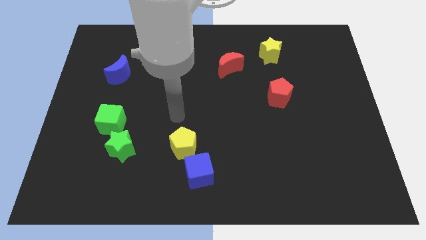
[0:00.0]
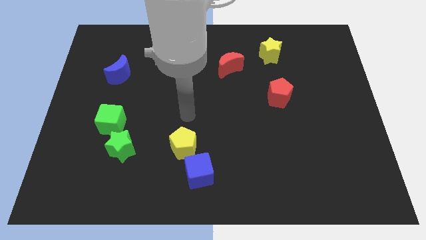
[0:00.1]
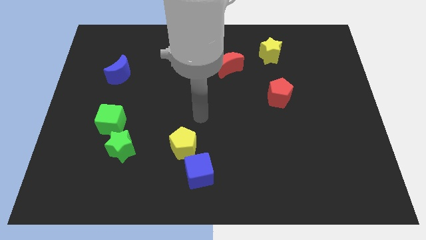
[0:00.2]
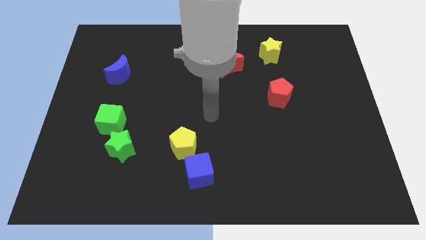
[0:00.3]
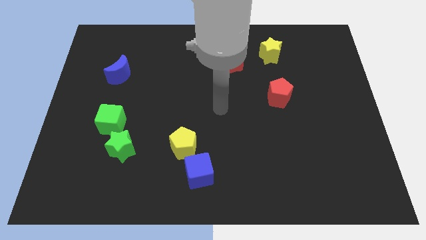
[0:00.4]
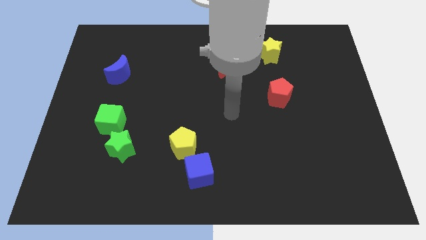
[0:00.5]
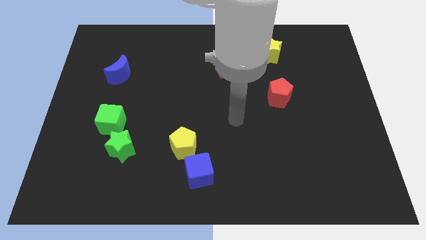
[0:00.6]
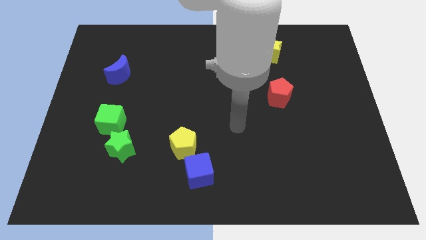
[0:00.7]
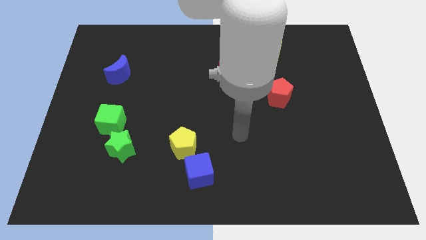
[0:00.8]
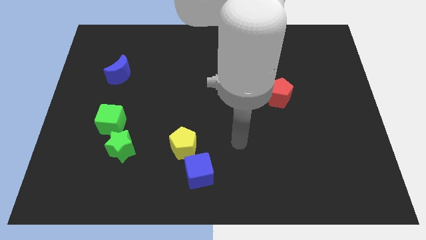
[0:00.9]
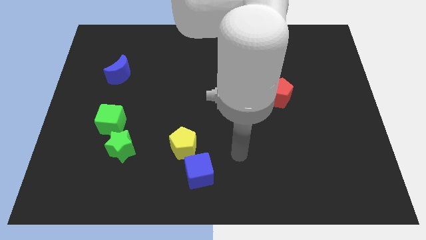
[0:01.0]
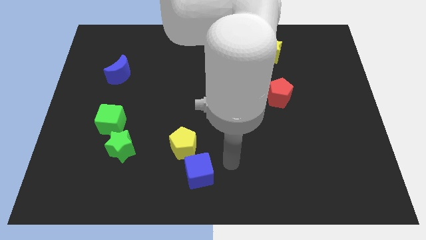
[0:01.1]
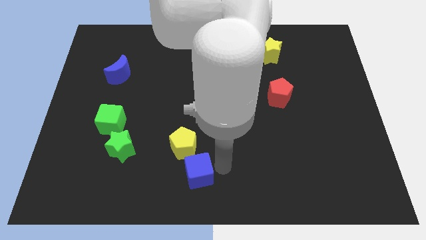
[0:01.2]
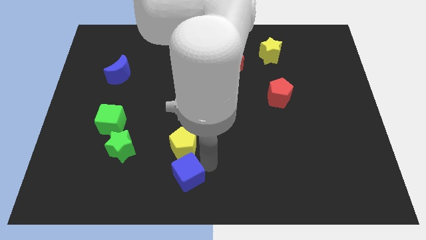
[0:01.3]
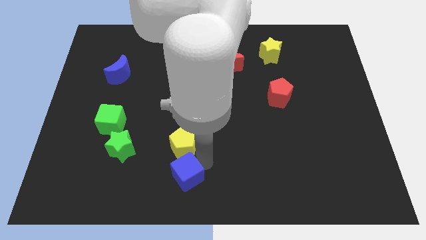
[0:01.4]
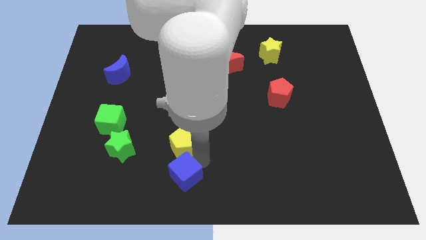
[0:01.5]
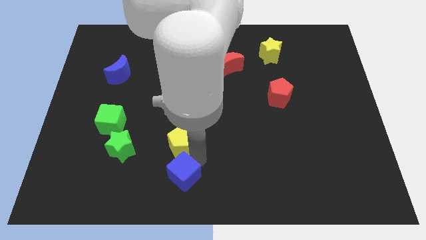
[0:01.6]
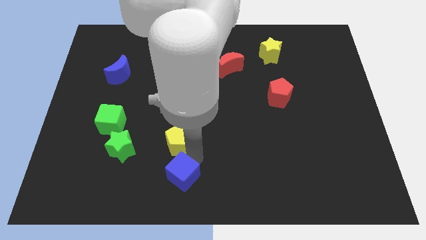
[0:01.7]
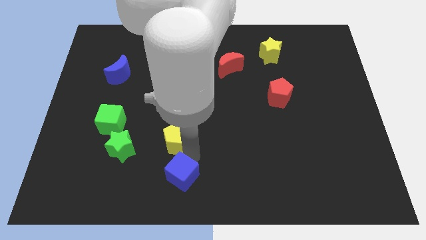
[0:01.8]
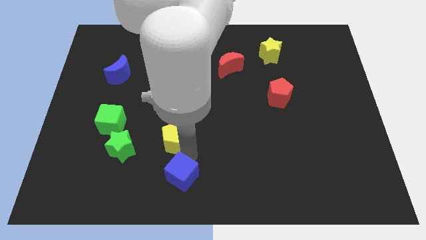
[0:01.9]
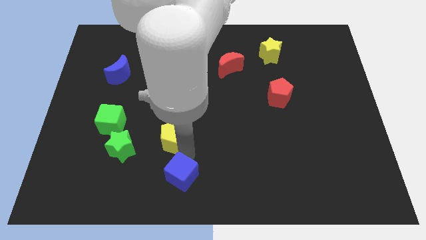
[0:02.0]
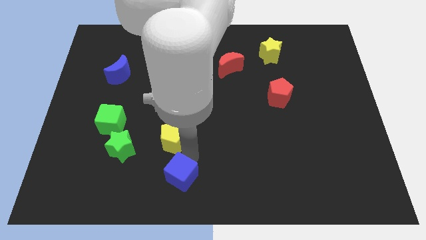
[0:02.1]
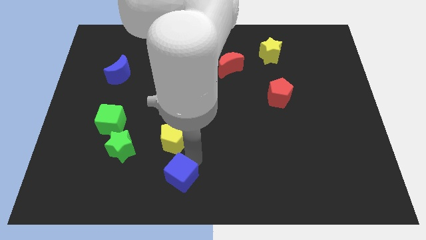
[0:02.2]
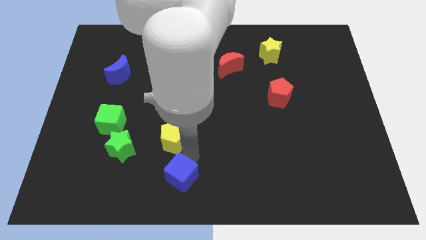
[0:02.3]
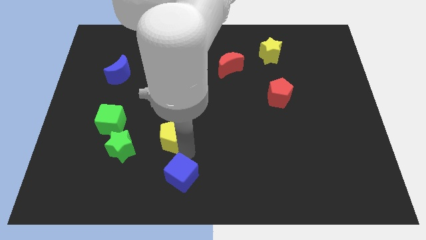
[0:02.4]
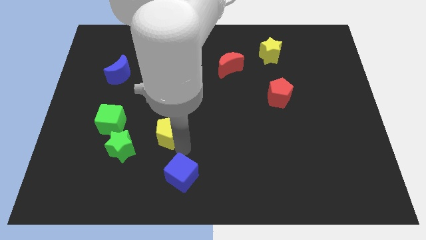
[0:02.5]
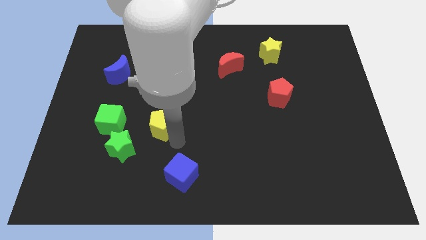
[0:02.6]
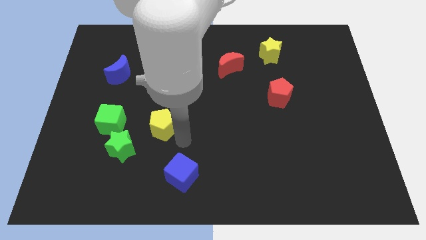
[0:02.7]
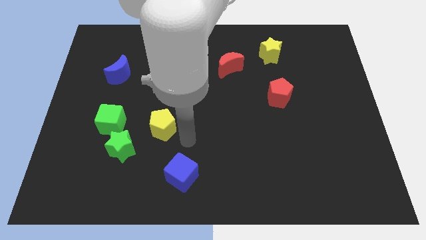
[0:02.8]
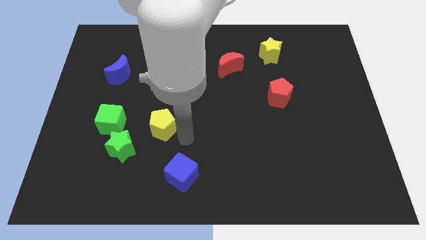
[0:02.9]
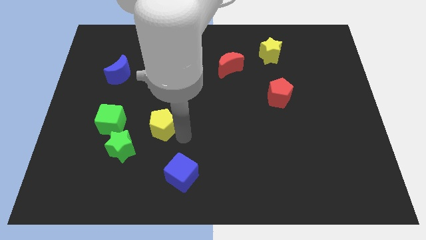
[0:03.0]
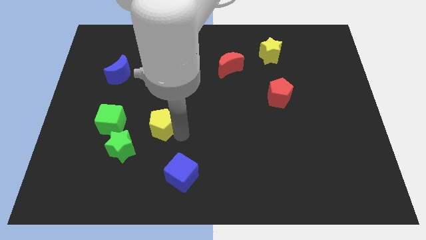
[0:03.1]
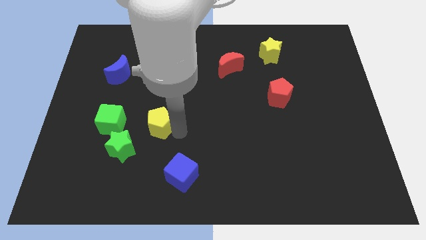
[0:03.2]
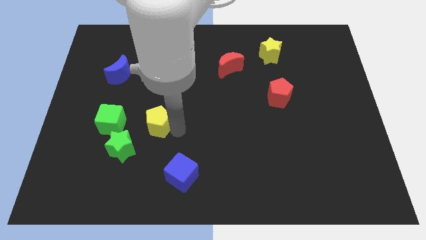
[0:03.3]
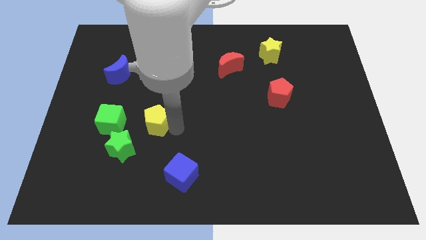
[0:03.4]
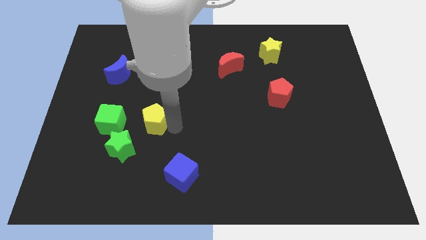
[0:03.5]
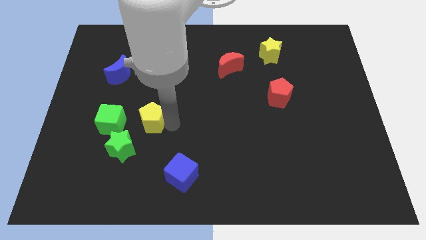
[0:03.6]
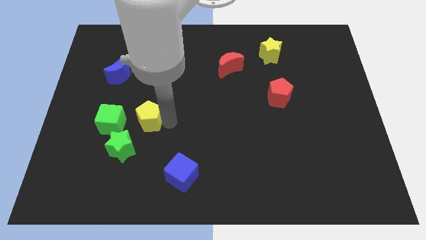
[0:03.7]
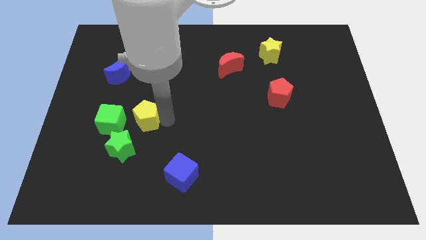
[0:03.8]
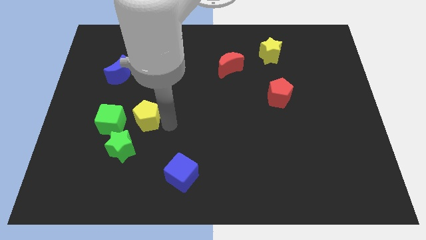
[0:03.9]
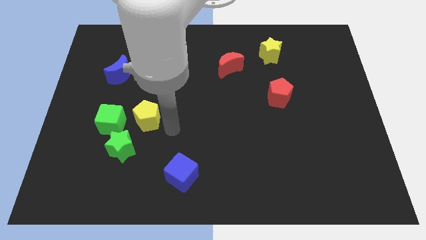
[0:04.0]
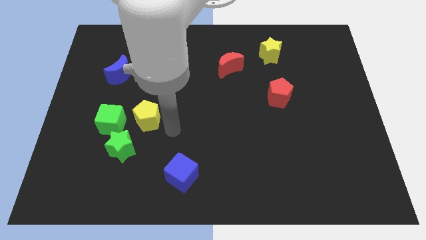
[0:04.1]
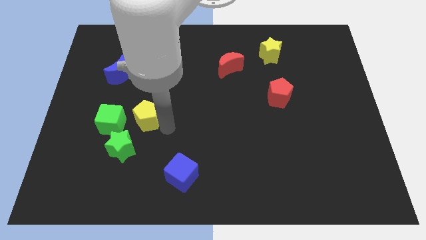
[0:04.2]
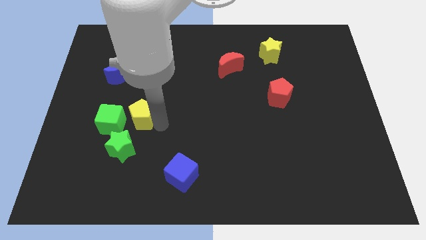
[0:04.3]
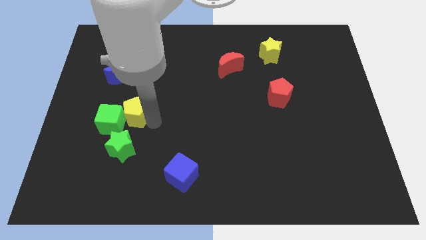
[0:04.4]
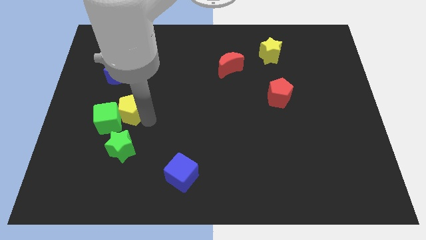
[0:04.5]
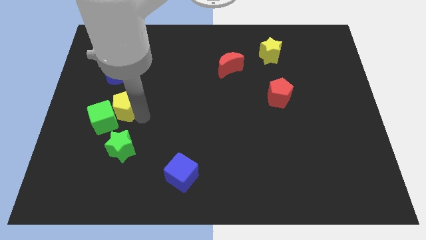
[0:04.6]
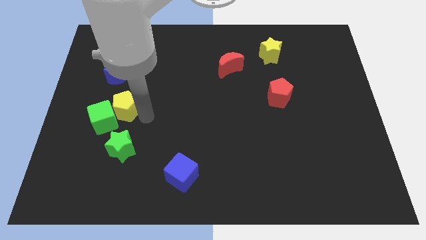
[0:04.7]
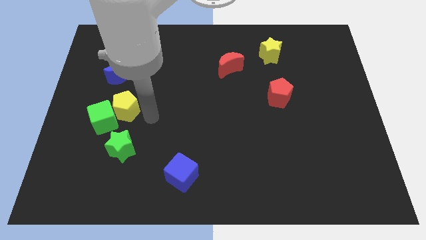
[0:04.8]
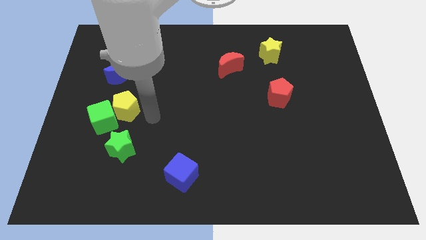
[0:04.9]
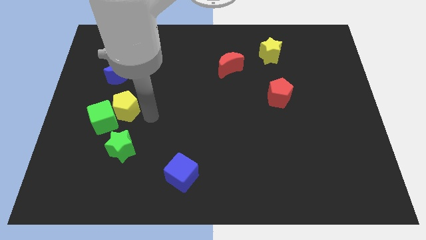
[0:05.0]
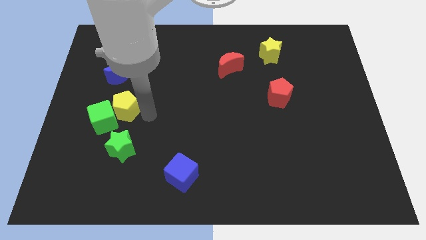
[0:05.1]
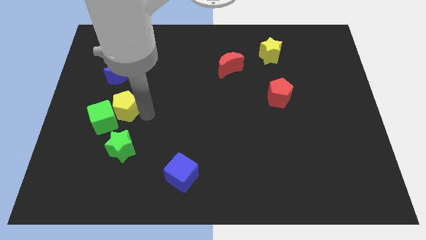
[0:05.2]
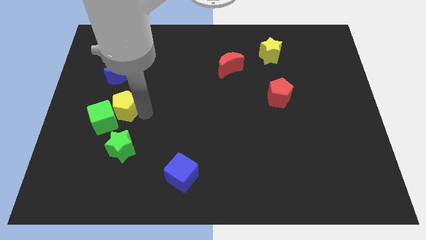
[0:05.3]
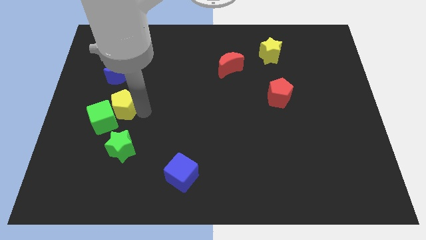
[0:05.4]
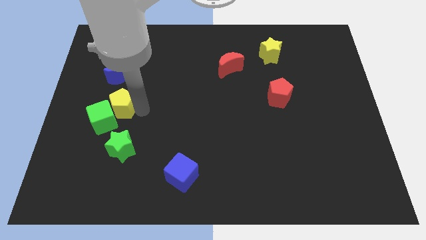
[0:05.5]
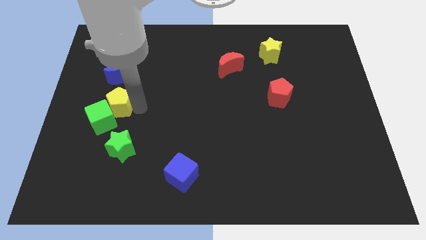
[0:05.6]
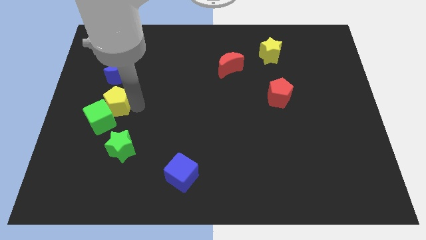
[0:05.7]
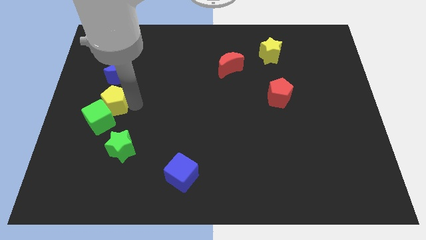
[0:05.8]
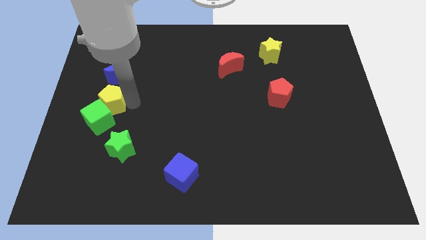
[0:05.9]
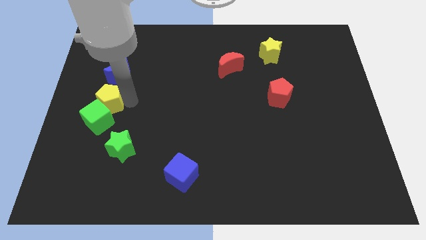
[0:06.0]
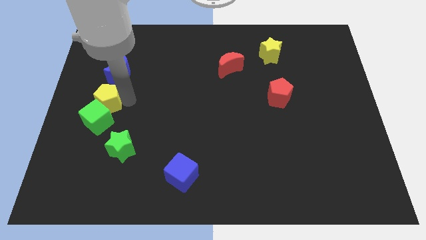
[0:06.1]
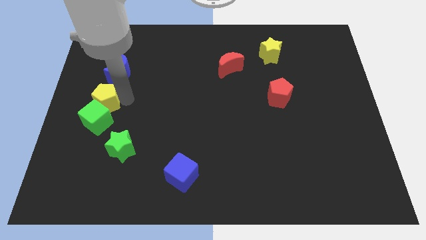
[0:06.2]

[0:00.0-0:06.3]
move the yellow pentagon to the center left

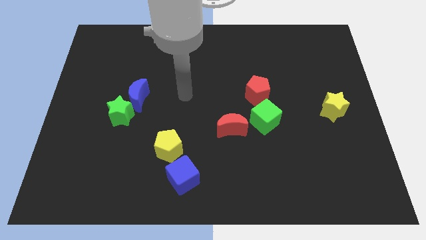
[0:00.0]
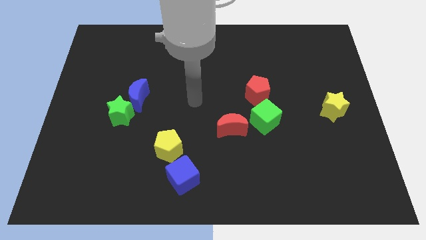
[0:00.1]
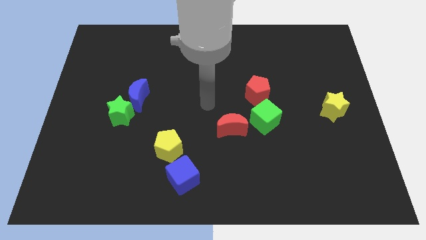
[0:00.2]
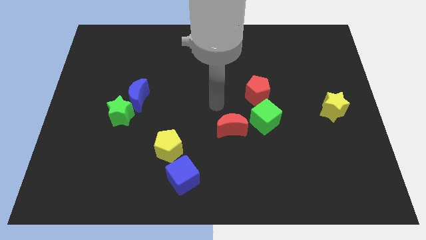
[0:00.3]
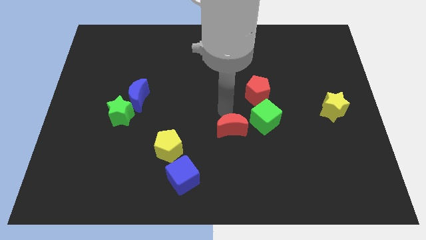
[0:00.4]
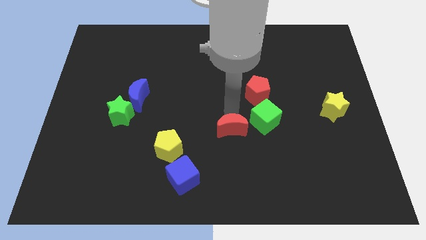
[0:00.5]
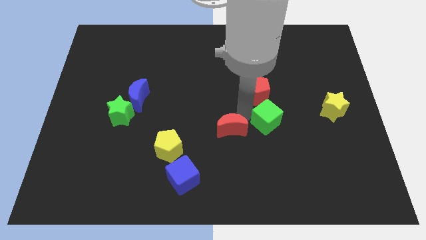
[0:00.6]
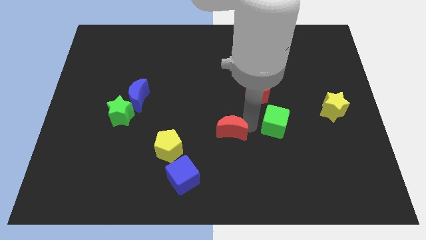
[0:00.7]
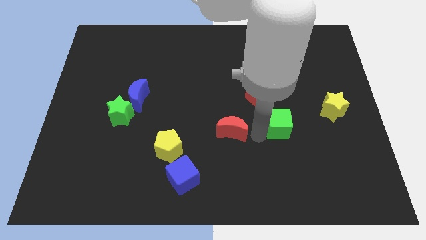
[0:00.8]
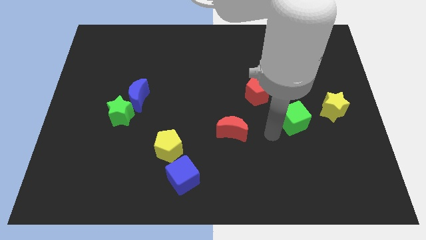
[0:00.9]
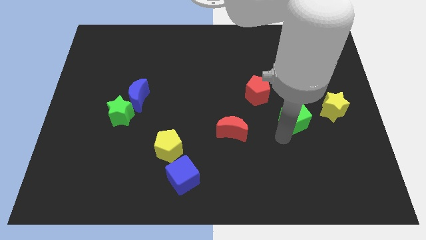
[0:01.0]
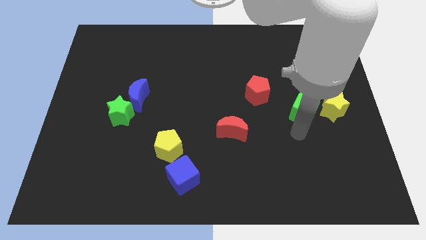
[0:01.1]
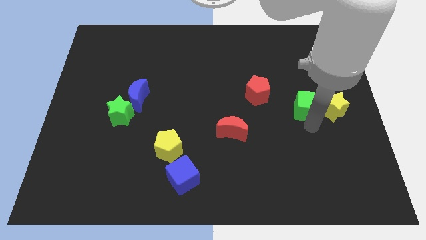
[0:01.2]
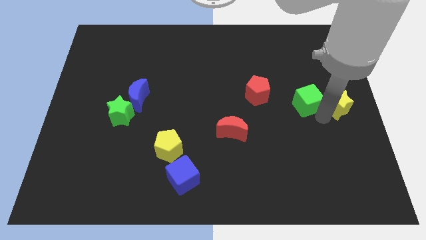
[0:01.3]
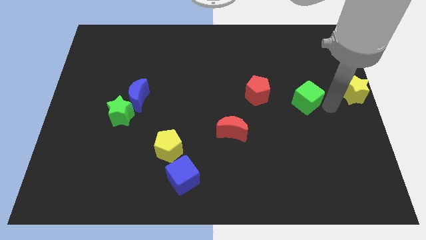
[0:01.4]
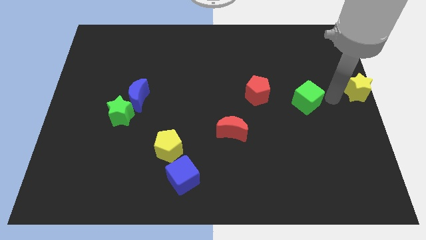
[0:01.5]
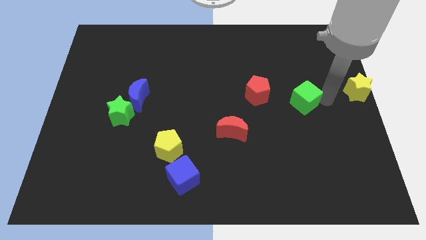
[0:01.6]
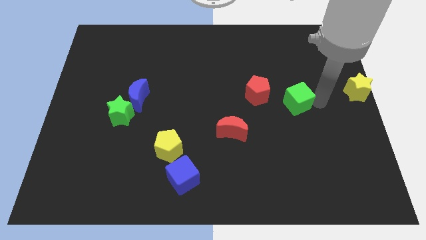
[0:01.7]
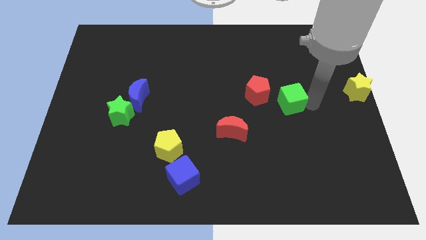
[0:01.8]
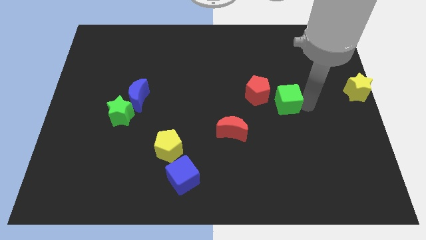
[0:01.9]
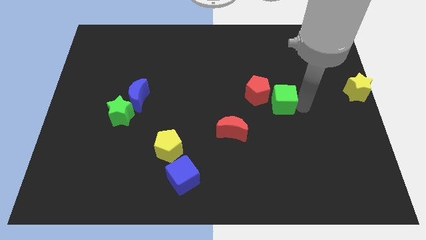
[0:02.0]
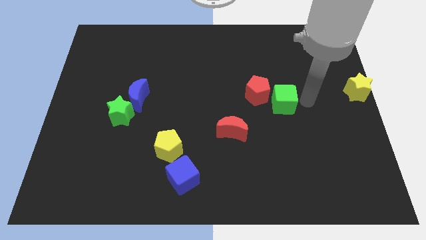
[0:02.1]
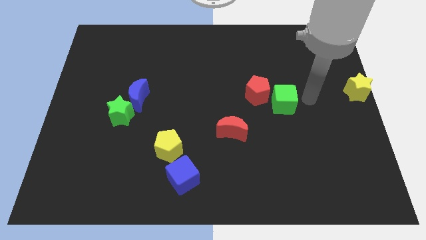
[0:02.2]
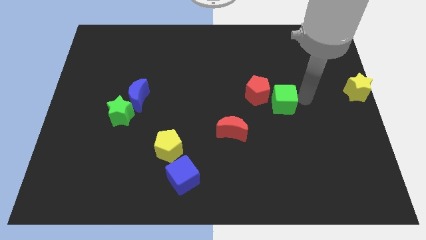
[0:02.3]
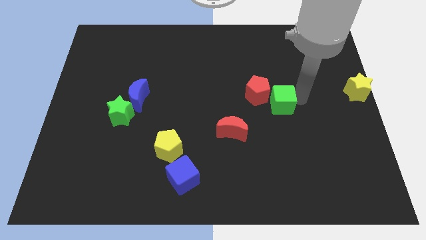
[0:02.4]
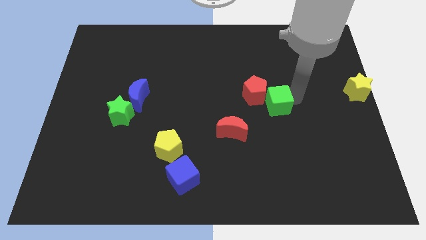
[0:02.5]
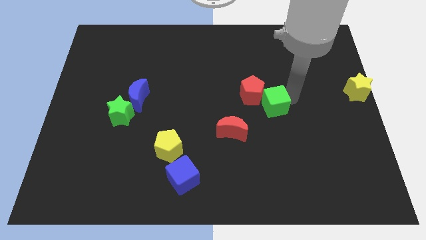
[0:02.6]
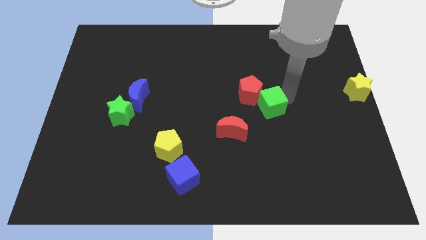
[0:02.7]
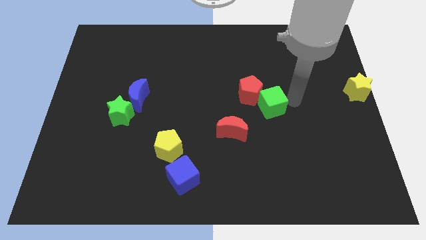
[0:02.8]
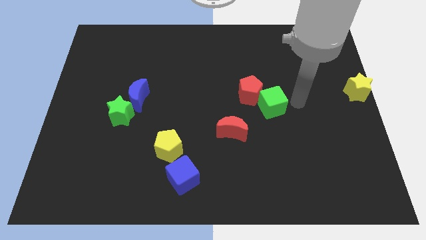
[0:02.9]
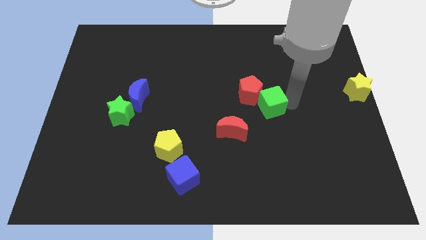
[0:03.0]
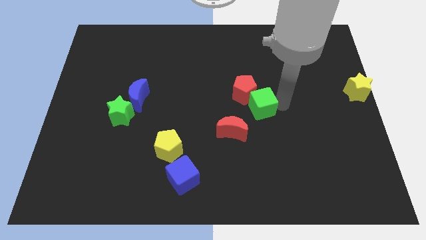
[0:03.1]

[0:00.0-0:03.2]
push the green cube to the middle of the board
